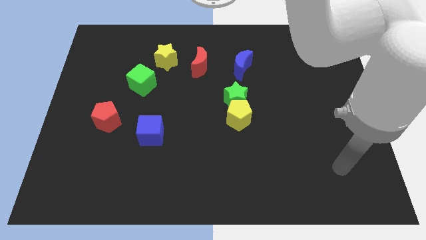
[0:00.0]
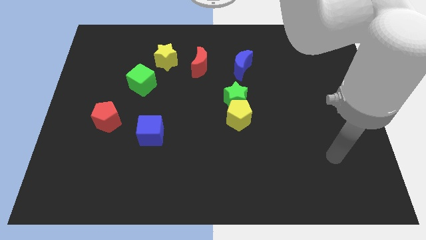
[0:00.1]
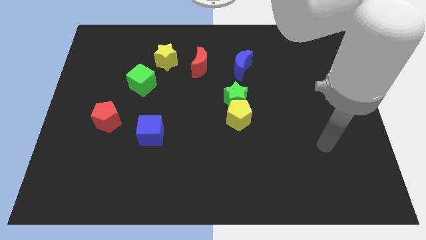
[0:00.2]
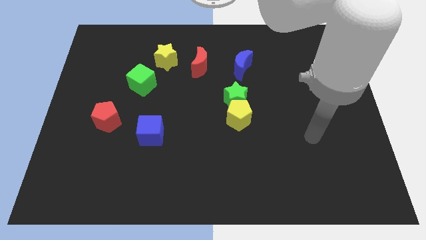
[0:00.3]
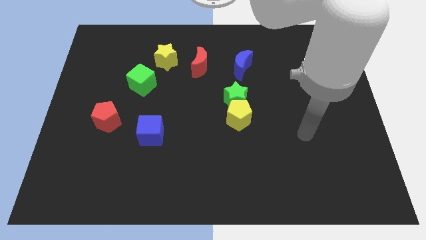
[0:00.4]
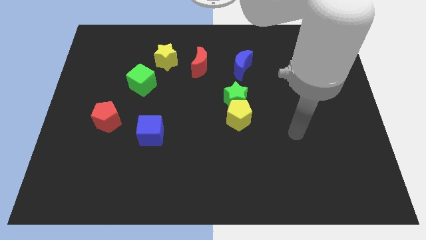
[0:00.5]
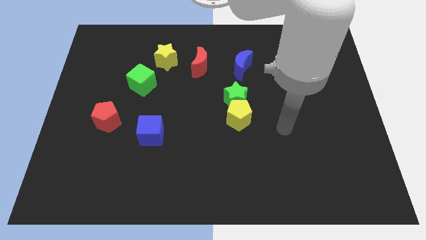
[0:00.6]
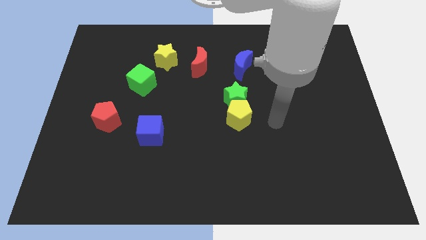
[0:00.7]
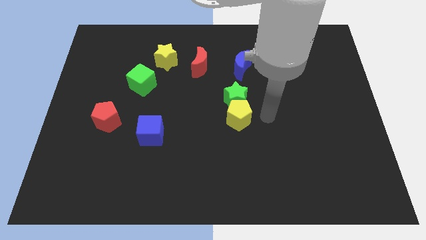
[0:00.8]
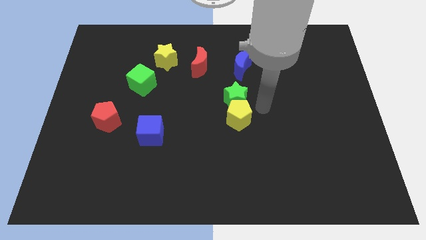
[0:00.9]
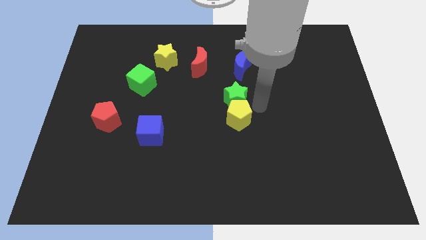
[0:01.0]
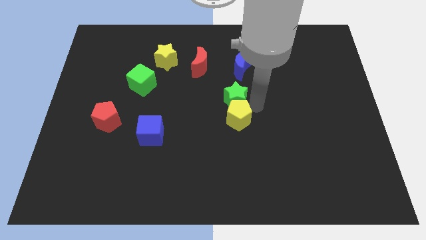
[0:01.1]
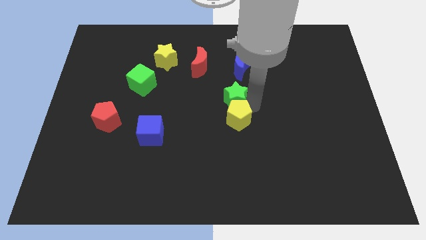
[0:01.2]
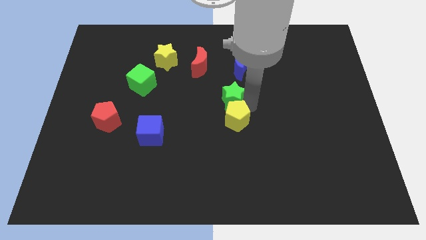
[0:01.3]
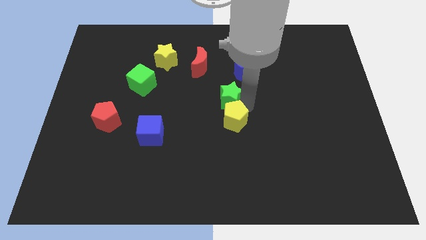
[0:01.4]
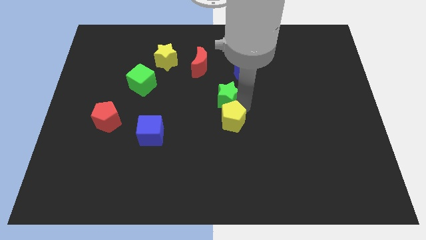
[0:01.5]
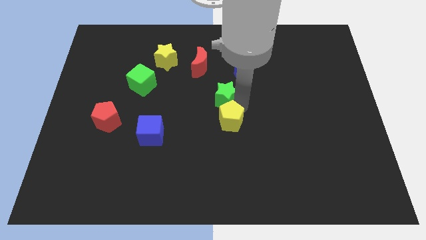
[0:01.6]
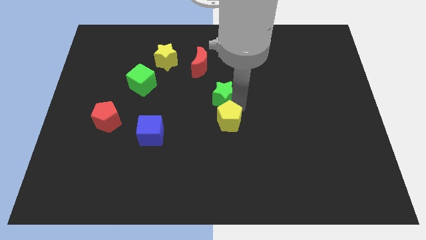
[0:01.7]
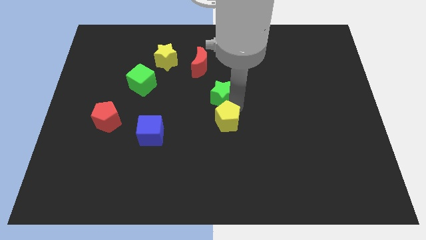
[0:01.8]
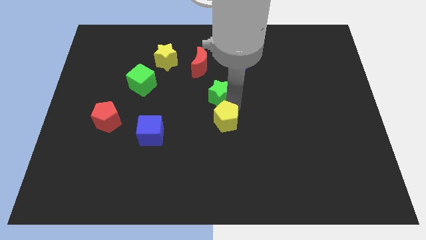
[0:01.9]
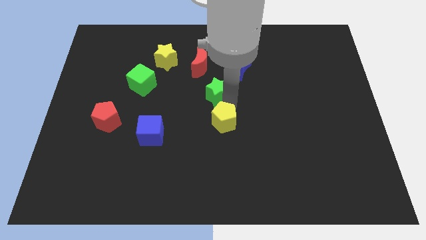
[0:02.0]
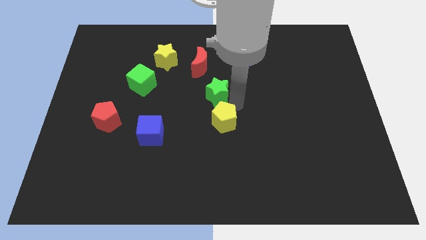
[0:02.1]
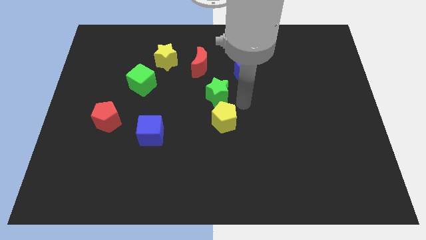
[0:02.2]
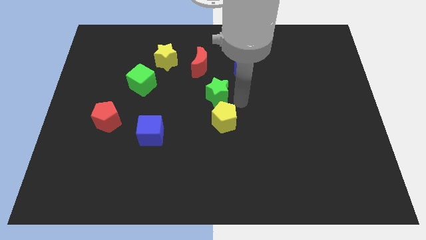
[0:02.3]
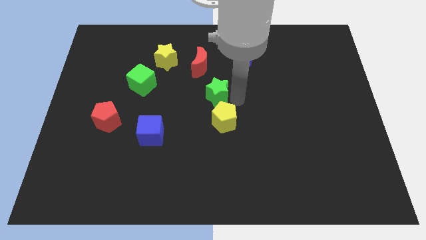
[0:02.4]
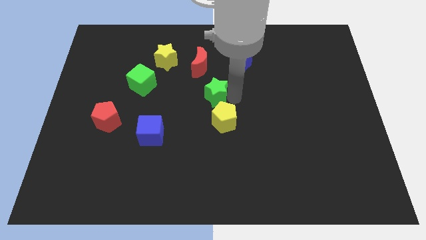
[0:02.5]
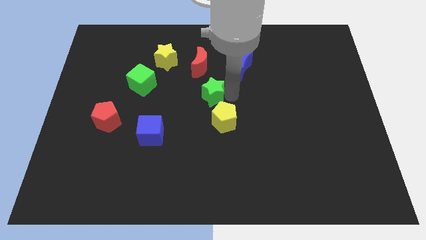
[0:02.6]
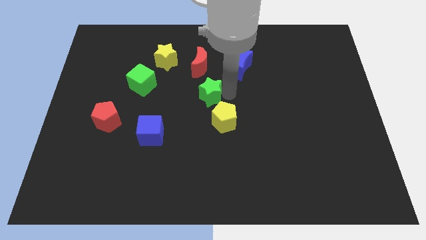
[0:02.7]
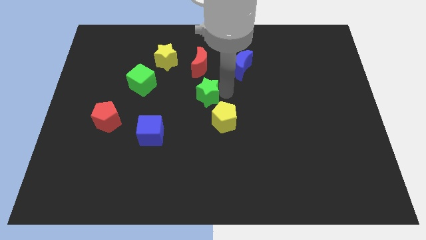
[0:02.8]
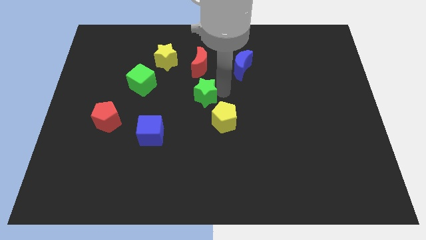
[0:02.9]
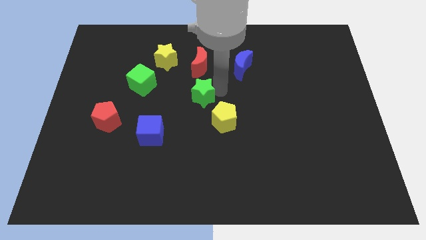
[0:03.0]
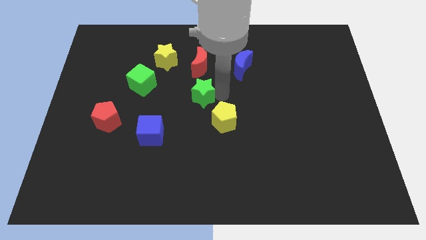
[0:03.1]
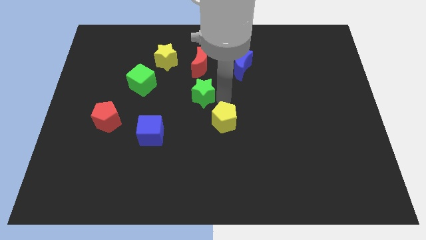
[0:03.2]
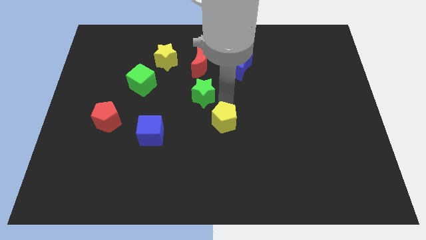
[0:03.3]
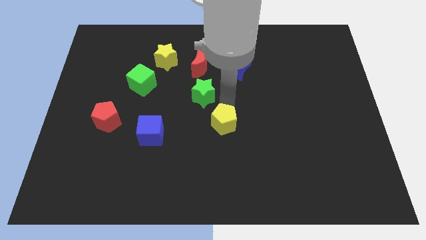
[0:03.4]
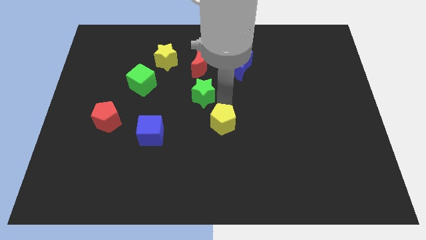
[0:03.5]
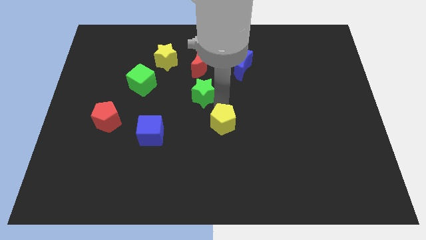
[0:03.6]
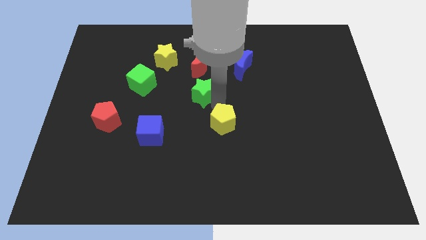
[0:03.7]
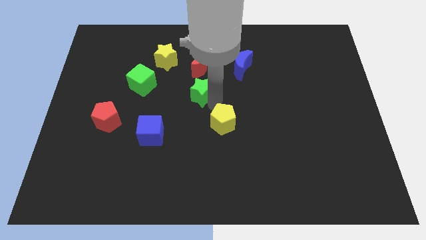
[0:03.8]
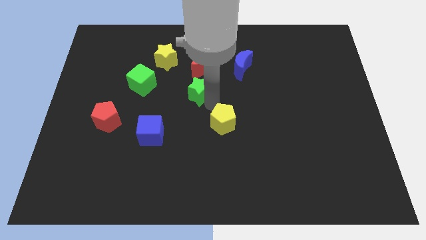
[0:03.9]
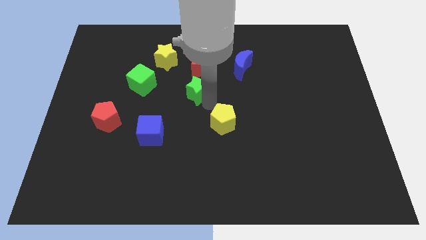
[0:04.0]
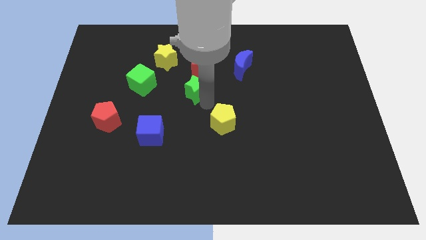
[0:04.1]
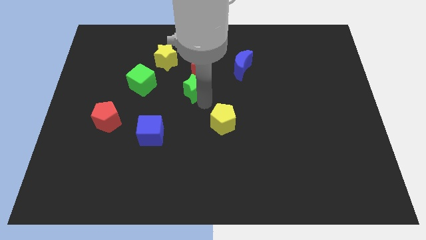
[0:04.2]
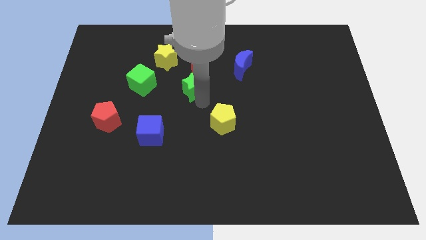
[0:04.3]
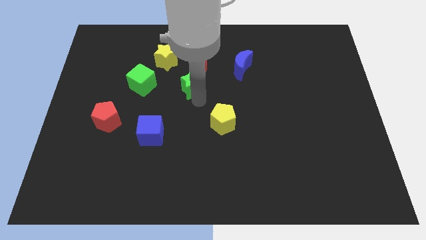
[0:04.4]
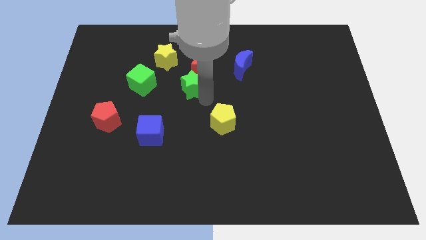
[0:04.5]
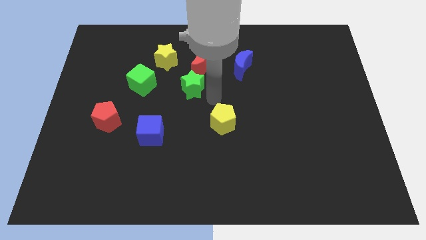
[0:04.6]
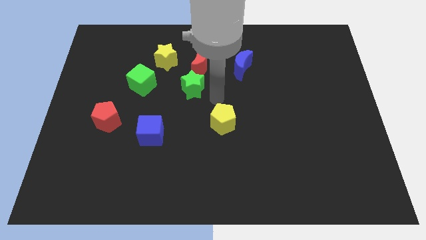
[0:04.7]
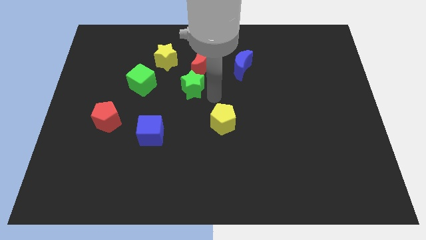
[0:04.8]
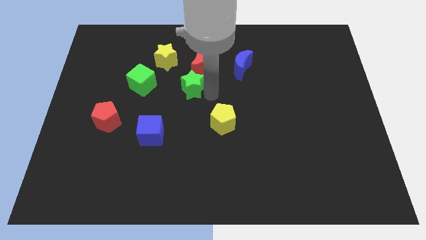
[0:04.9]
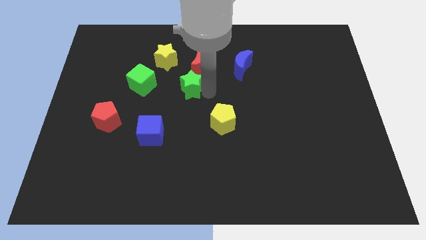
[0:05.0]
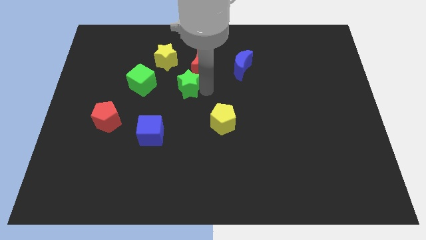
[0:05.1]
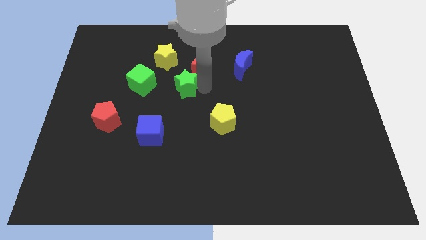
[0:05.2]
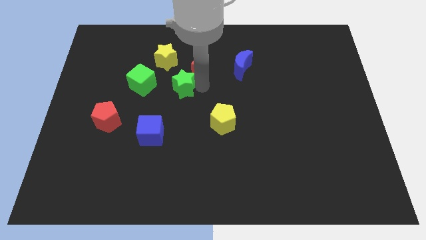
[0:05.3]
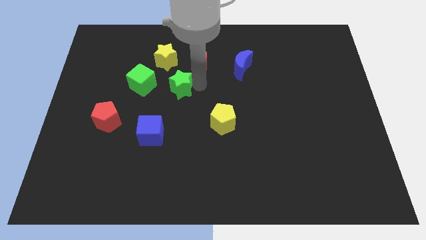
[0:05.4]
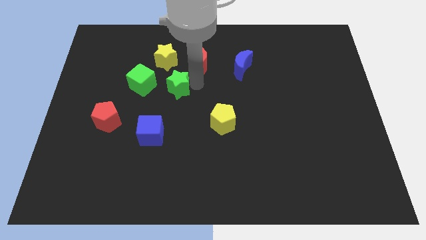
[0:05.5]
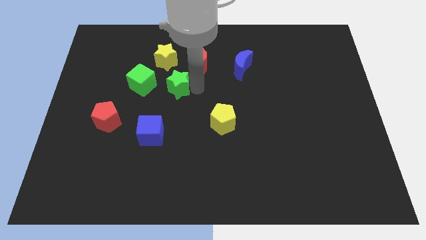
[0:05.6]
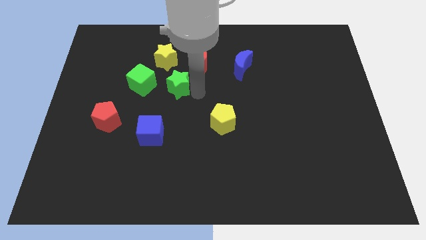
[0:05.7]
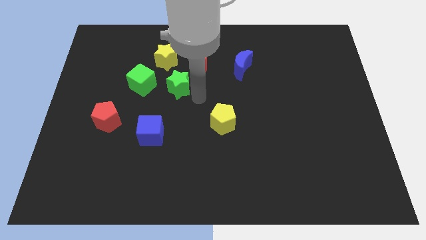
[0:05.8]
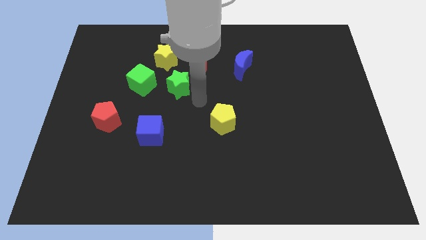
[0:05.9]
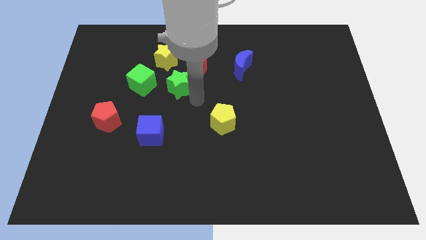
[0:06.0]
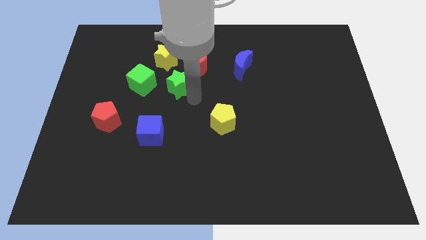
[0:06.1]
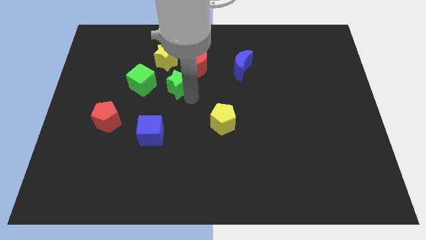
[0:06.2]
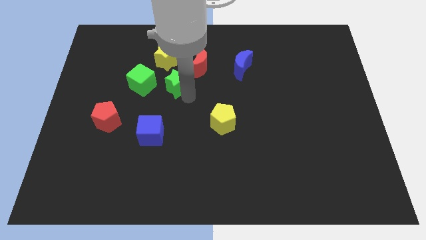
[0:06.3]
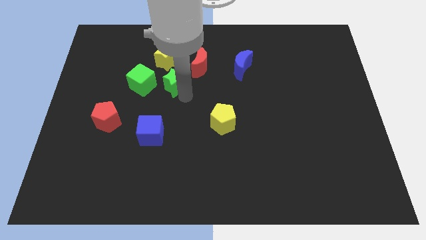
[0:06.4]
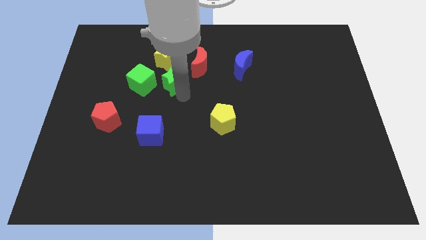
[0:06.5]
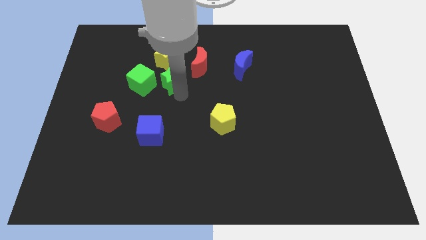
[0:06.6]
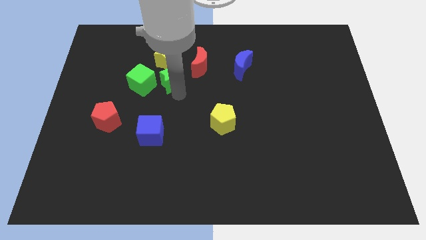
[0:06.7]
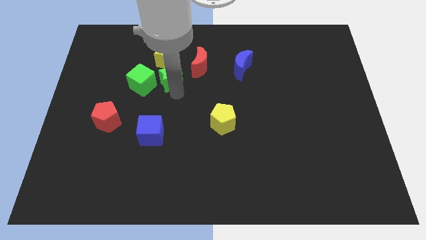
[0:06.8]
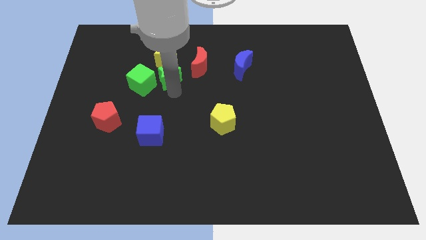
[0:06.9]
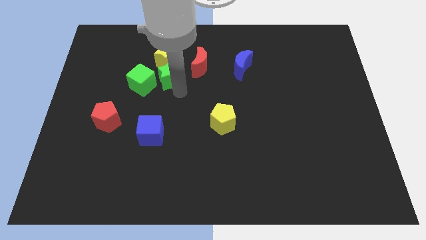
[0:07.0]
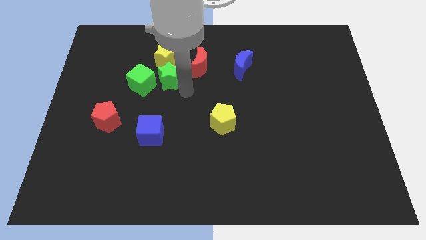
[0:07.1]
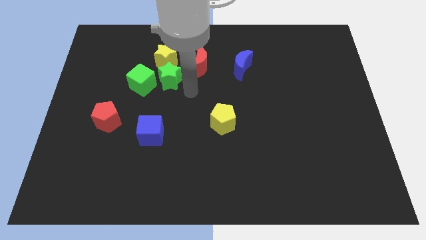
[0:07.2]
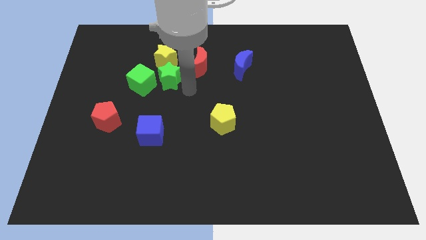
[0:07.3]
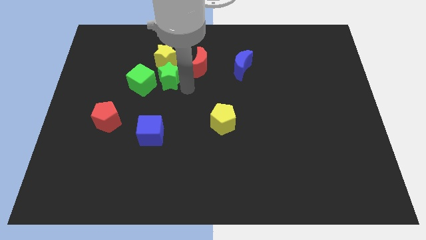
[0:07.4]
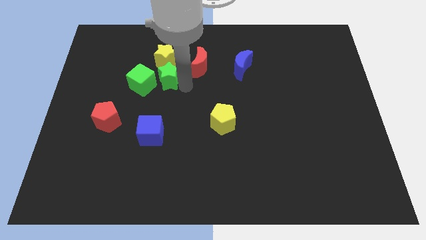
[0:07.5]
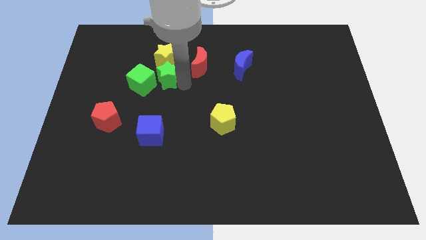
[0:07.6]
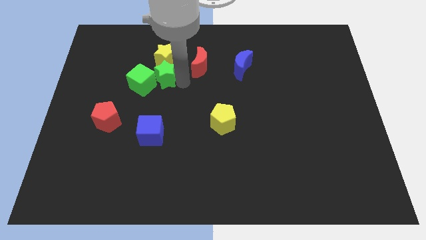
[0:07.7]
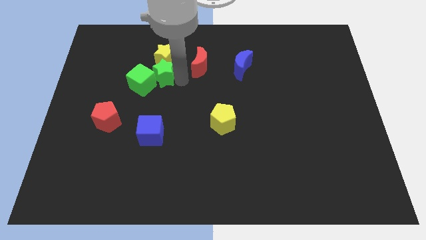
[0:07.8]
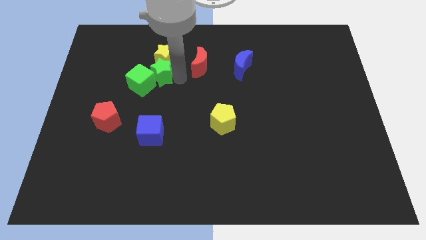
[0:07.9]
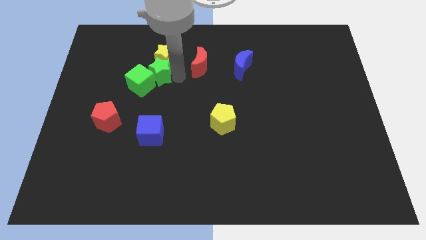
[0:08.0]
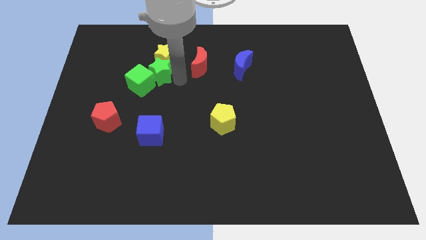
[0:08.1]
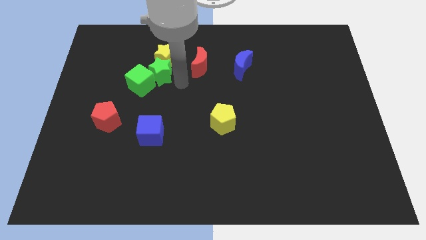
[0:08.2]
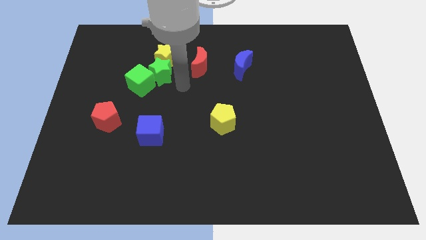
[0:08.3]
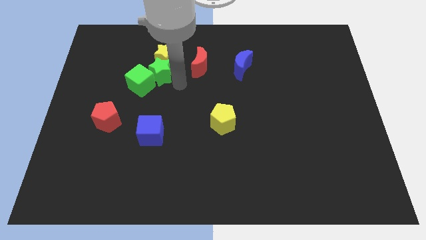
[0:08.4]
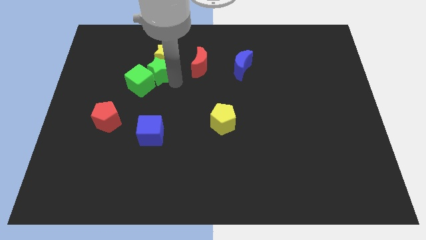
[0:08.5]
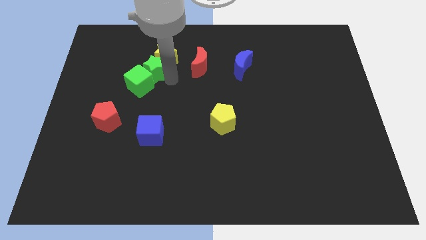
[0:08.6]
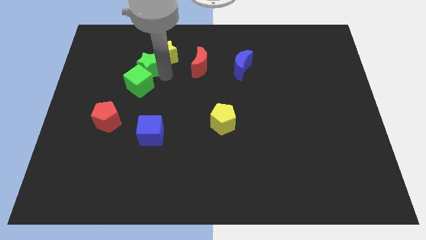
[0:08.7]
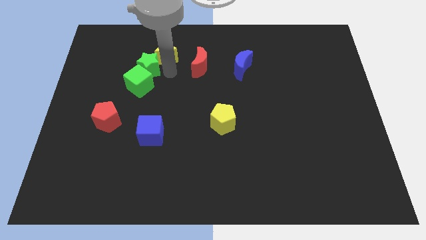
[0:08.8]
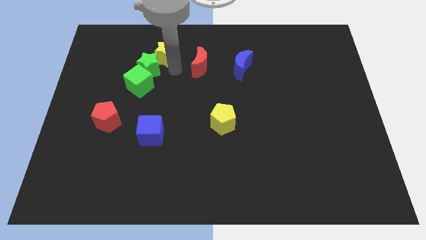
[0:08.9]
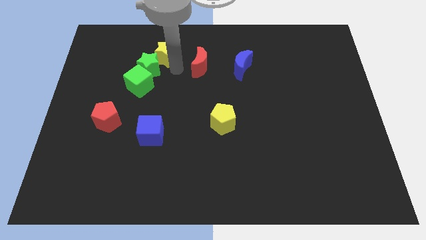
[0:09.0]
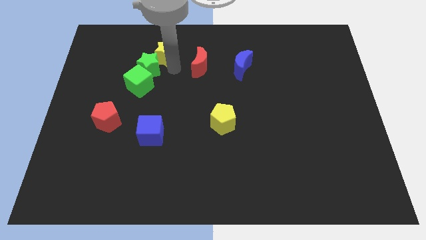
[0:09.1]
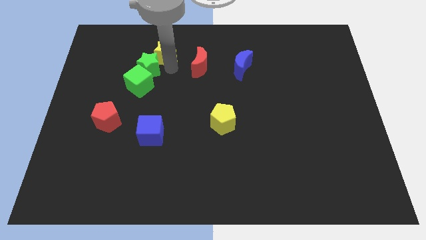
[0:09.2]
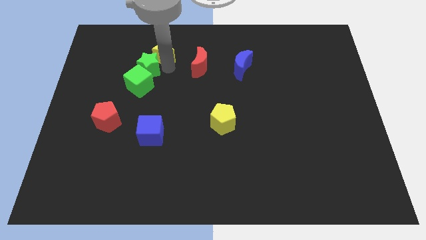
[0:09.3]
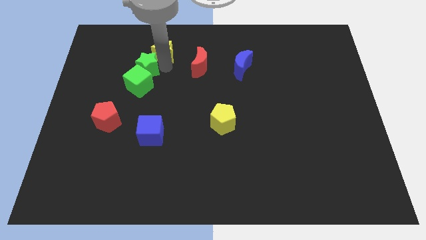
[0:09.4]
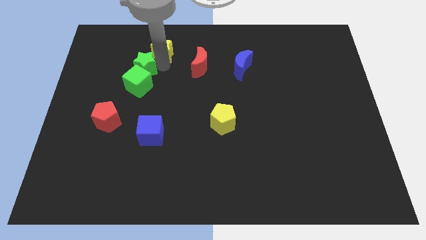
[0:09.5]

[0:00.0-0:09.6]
push the green star to the top left side of the green cube
